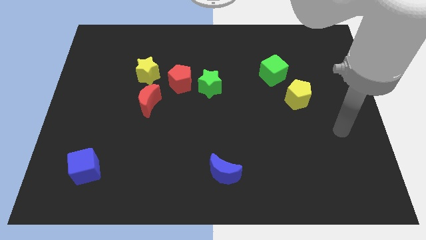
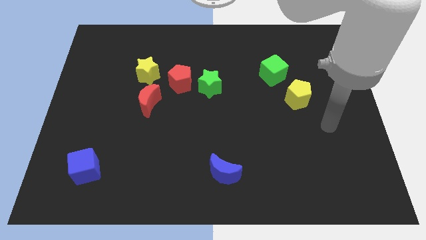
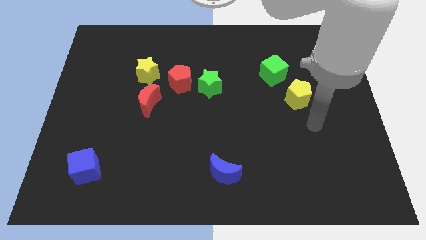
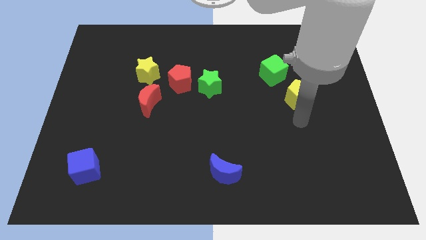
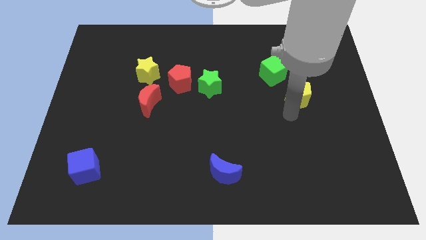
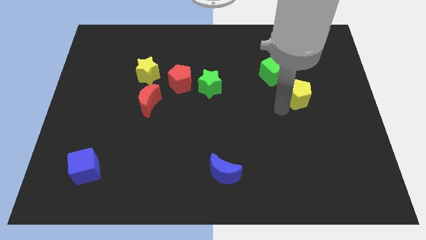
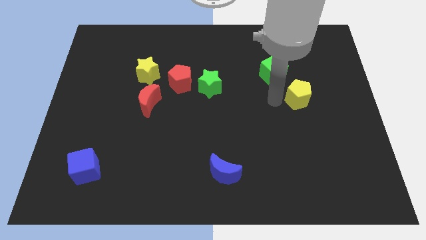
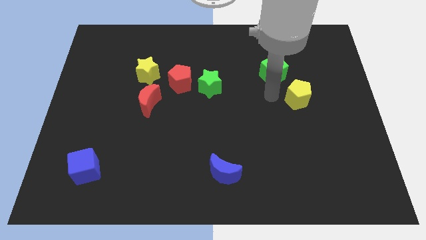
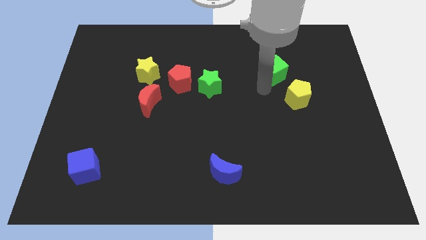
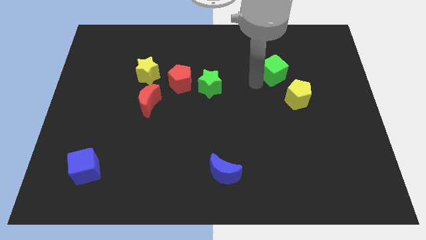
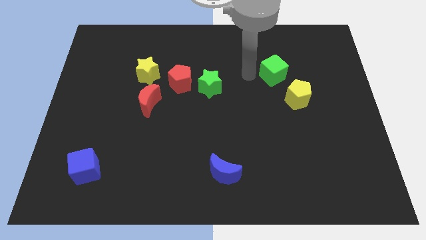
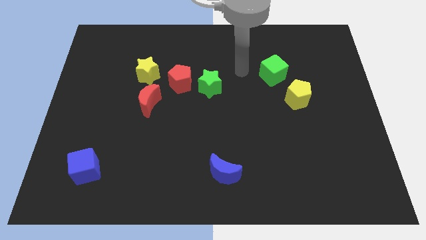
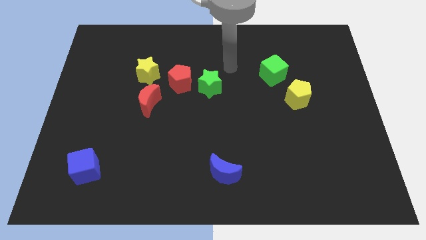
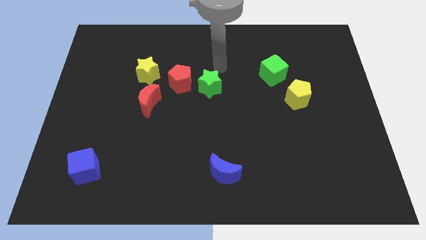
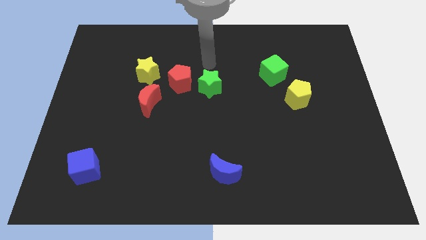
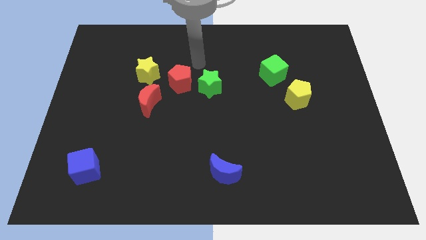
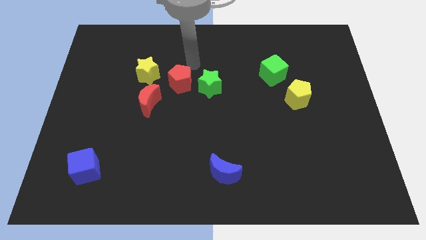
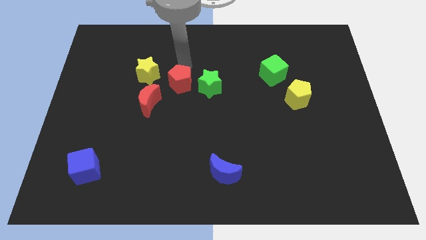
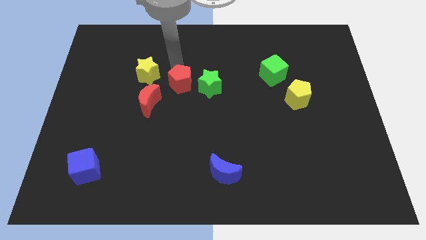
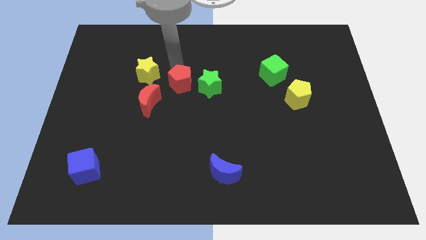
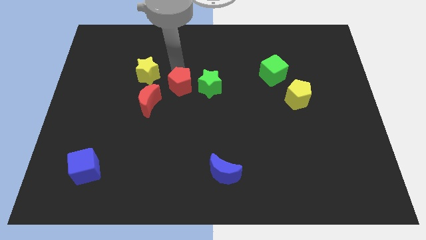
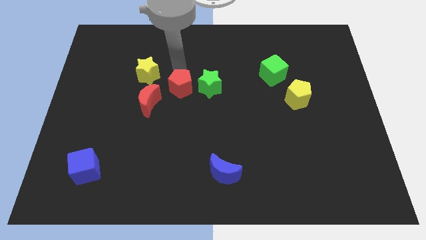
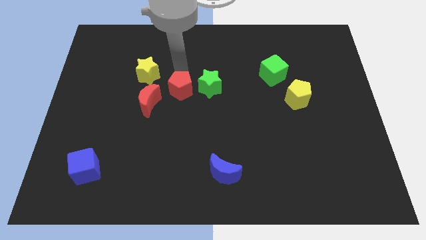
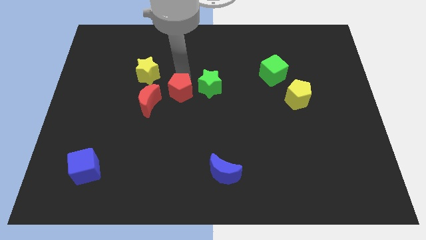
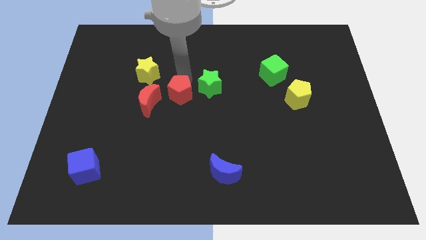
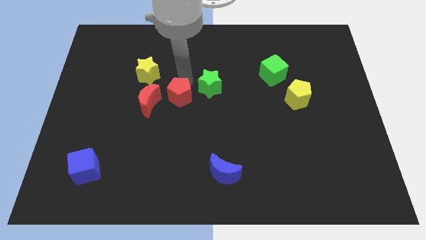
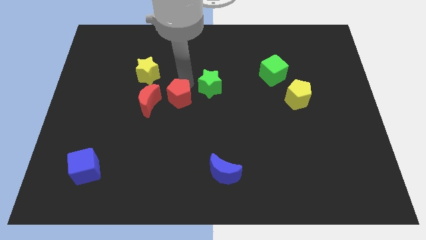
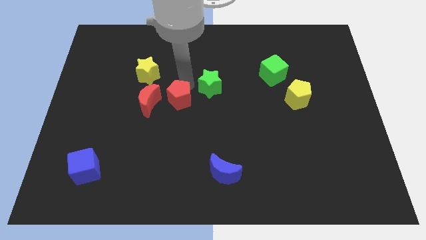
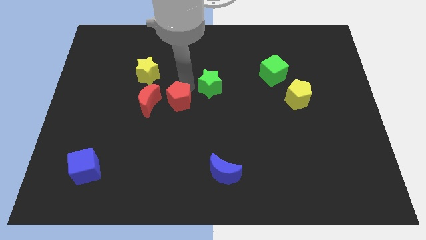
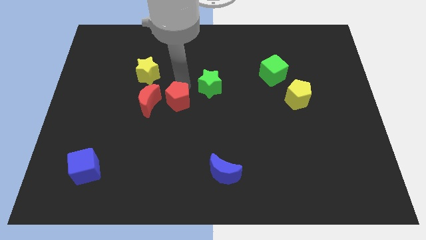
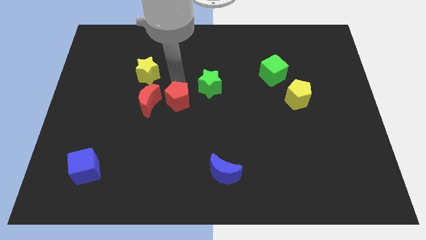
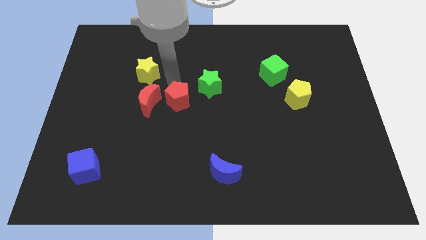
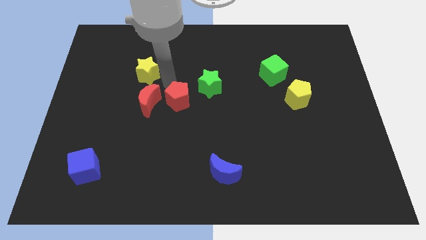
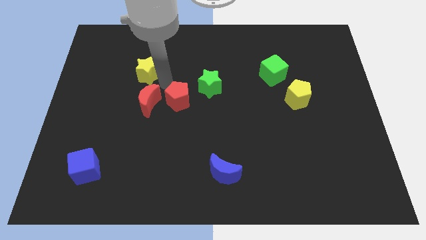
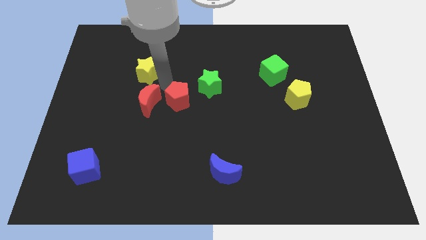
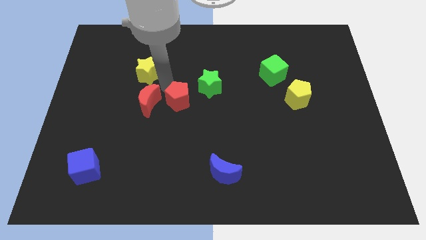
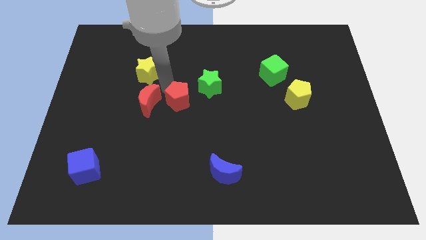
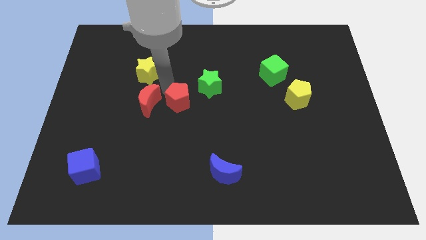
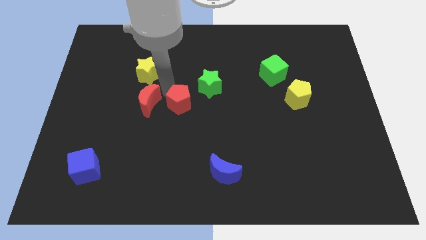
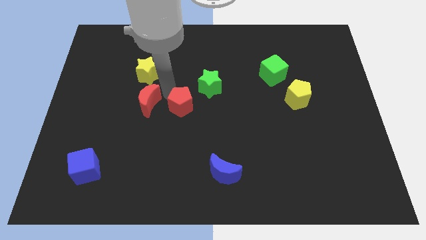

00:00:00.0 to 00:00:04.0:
move the red pentagon a little downwards

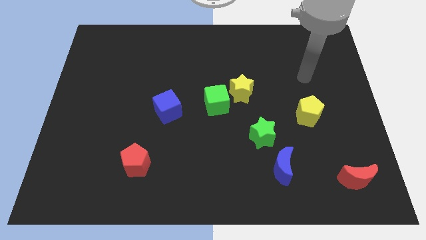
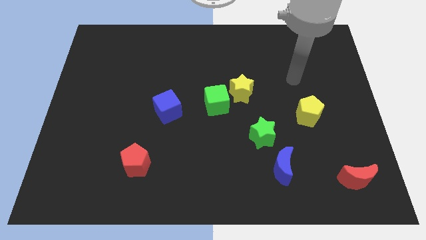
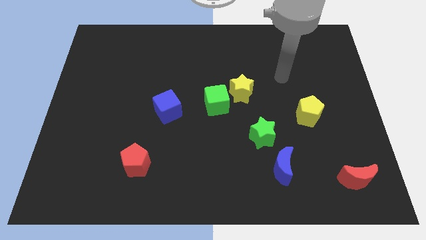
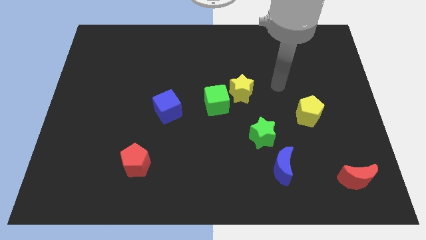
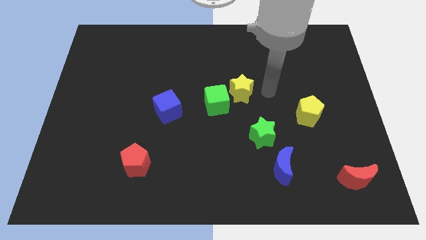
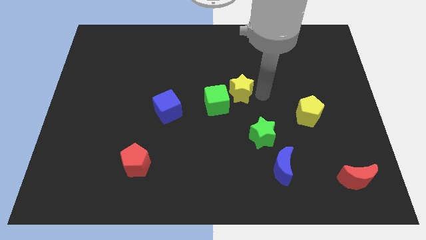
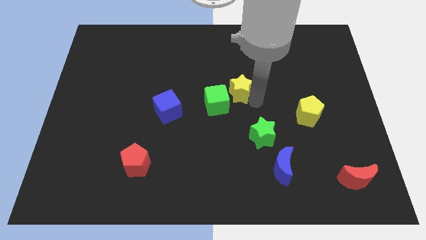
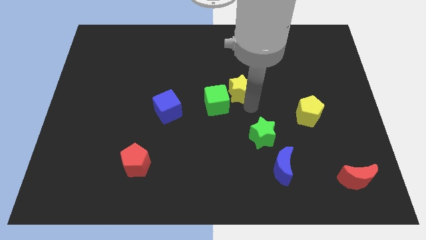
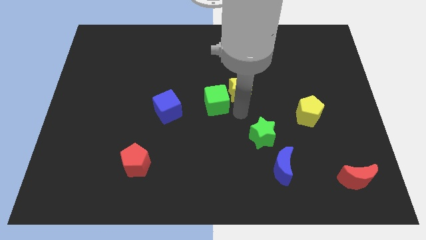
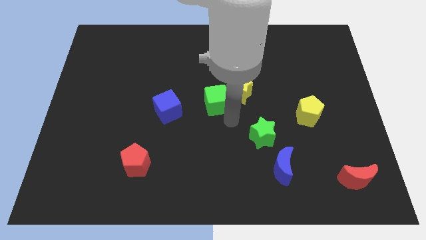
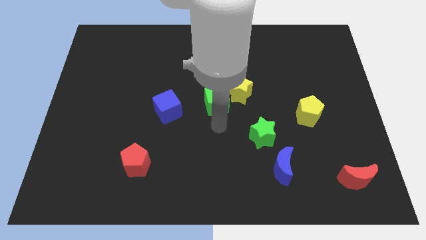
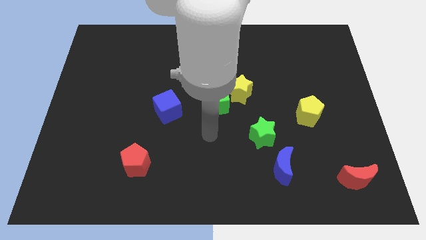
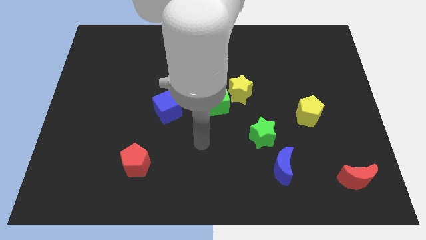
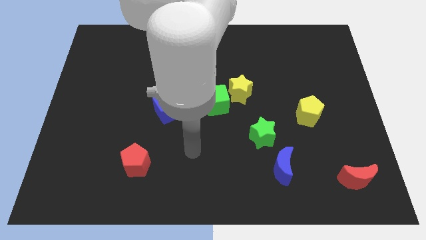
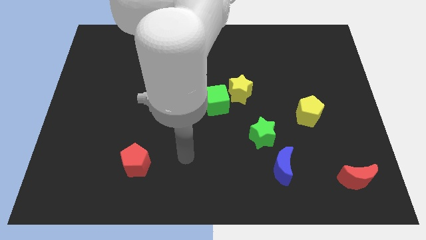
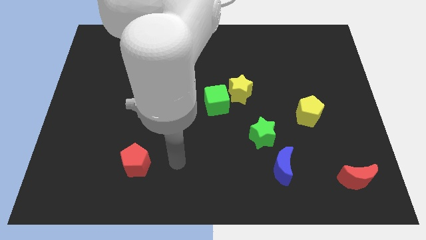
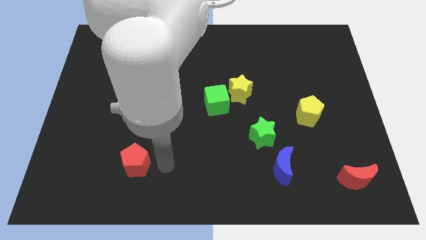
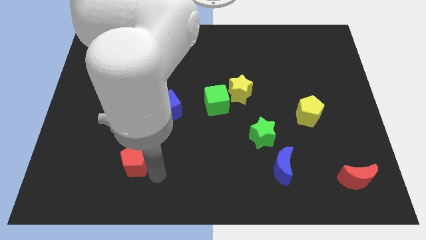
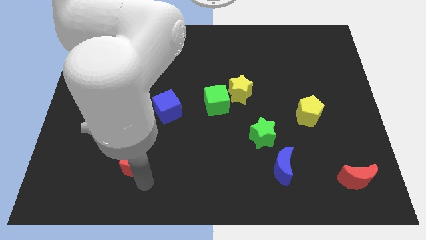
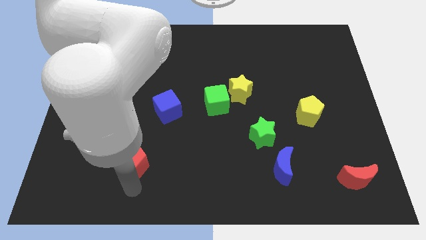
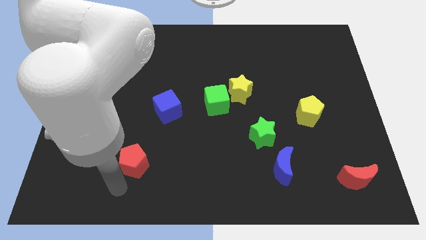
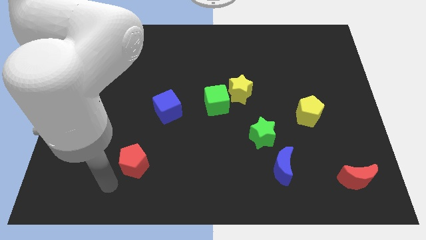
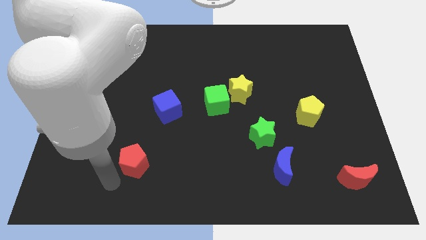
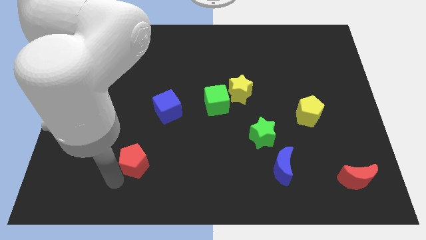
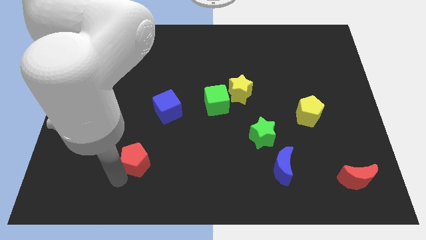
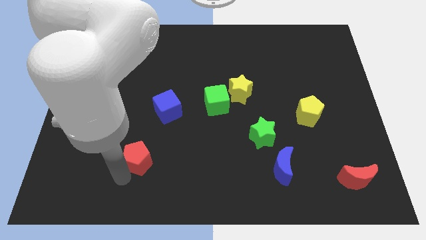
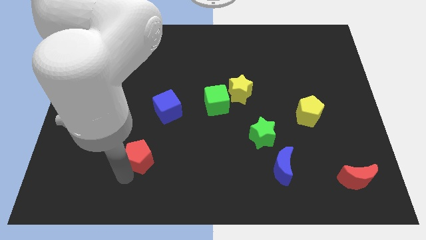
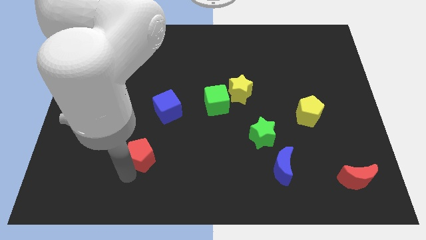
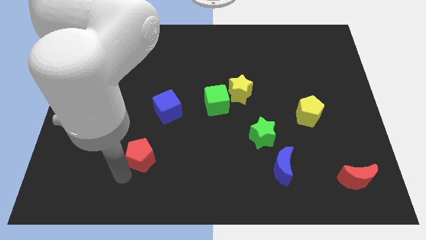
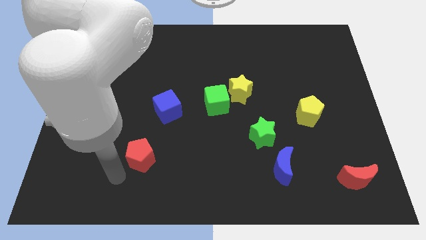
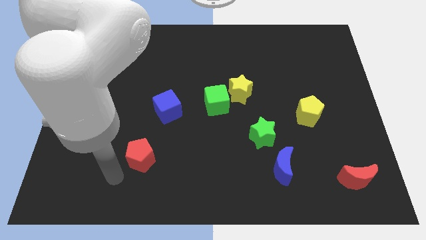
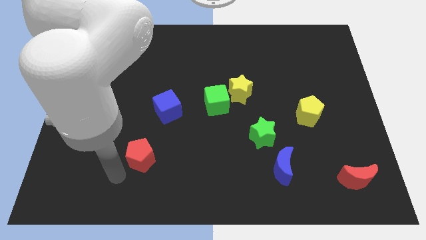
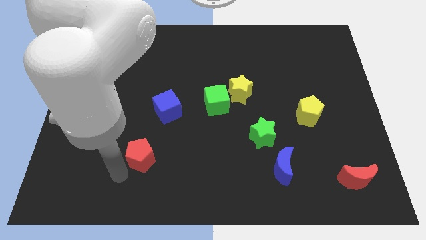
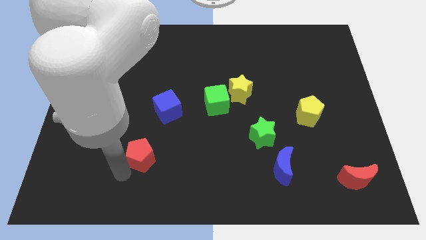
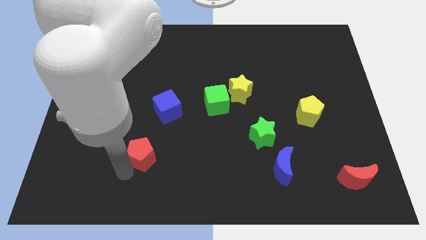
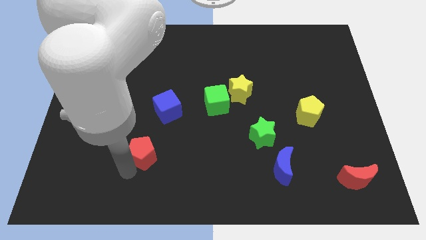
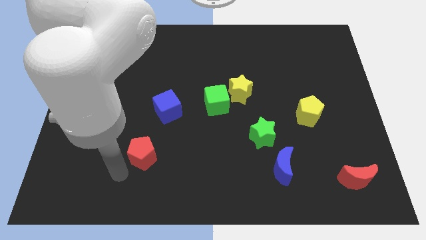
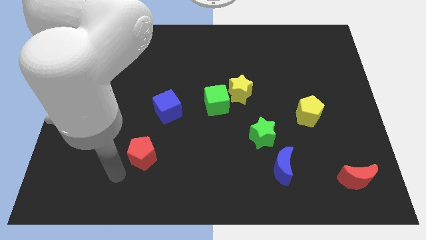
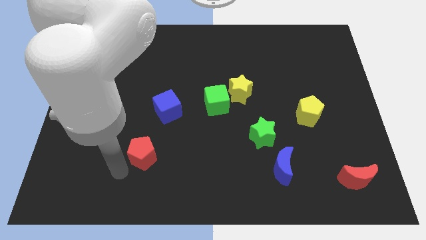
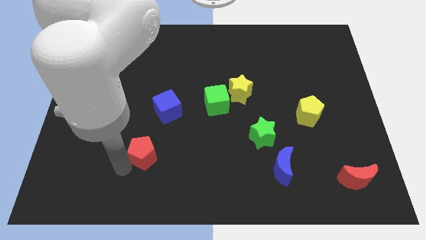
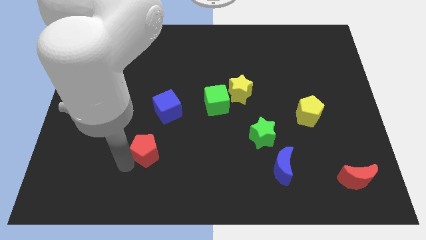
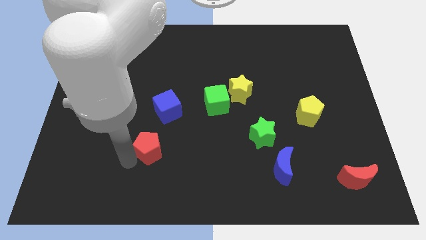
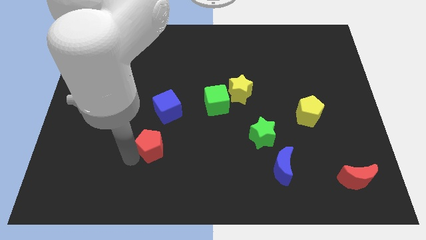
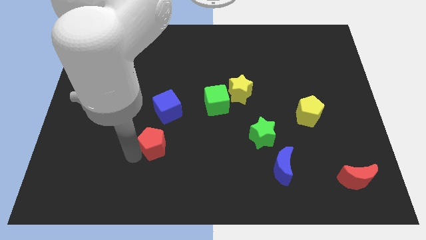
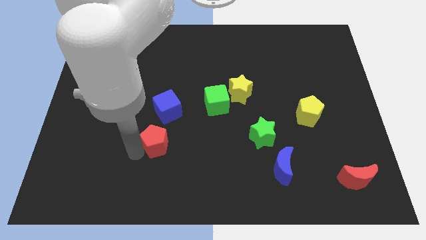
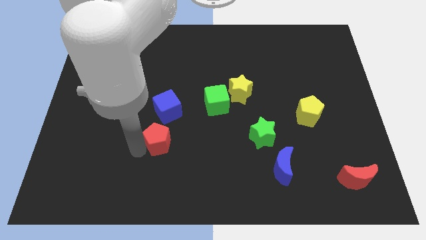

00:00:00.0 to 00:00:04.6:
slide the red pentagon up and right diagonally a bit

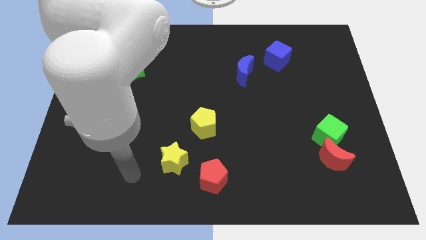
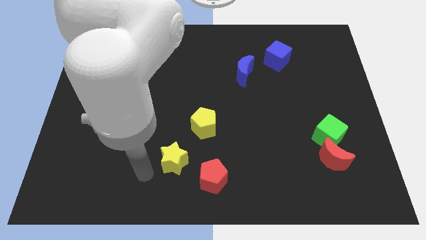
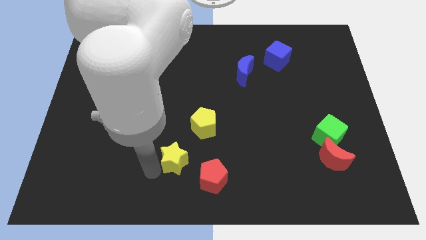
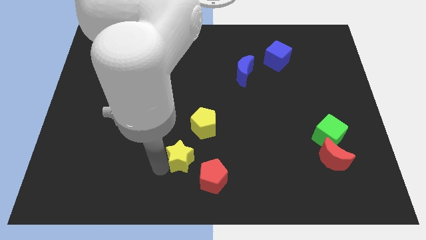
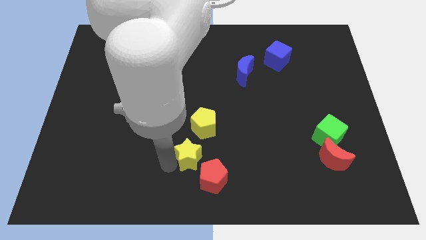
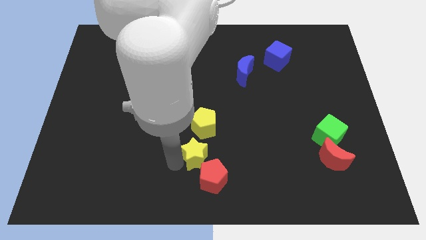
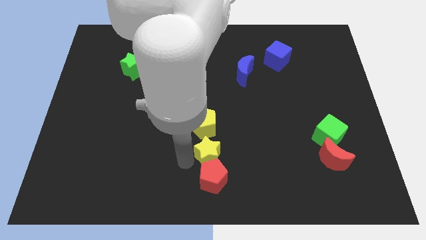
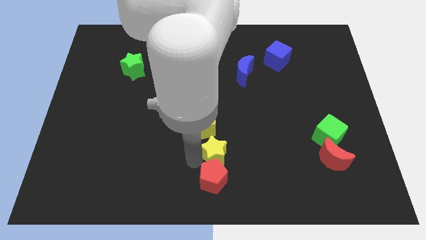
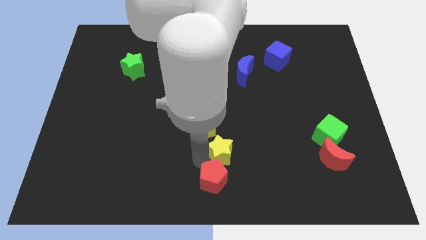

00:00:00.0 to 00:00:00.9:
slightly move the yellow star diagonally up and to the right
